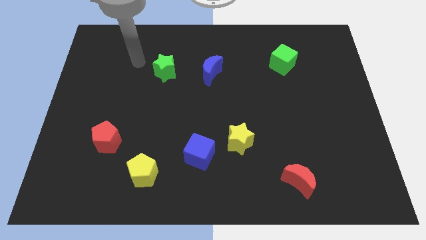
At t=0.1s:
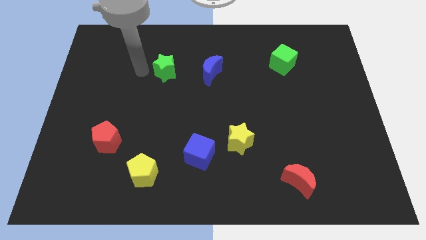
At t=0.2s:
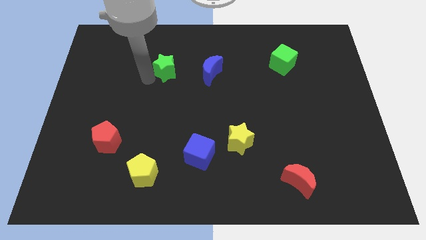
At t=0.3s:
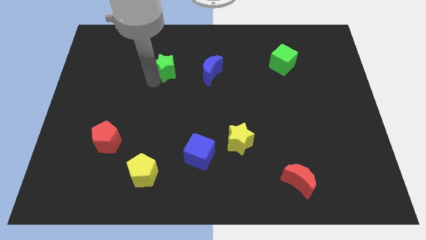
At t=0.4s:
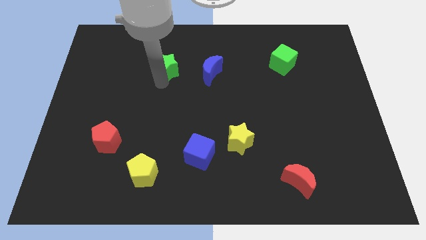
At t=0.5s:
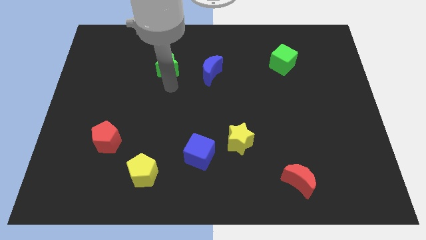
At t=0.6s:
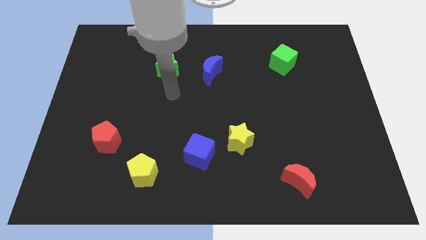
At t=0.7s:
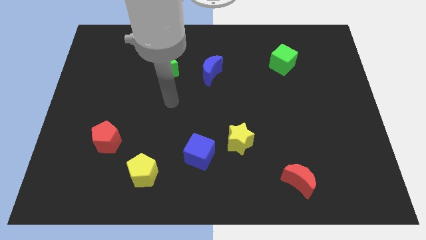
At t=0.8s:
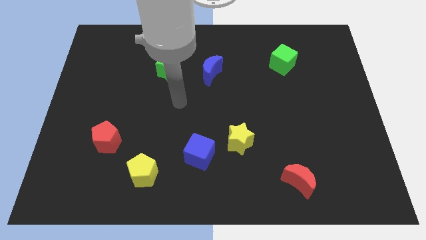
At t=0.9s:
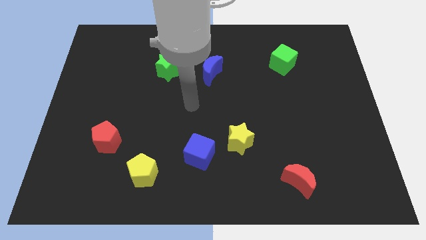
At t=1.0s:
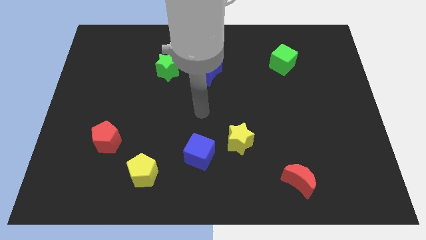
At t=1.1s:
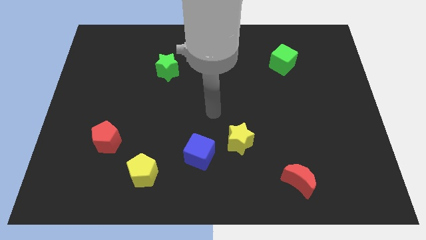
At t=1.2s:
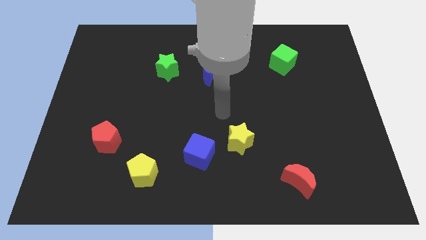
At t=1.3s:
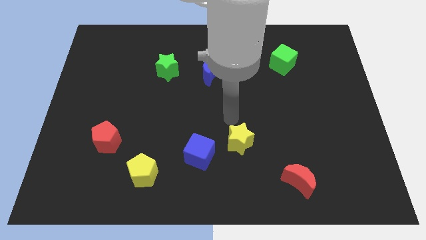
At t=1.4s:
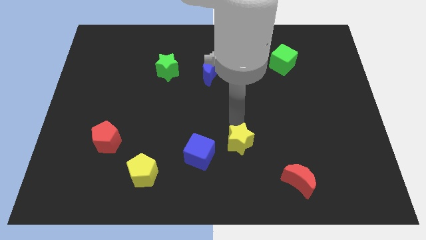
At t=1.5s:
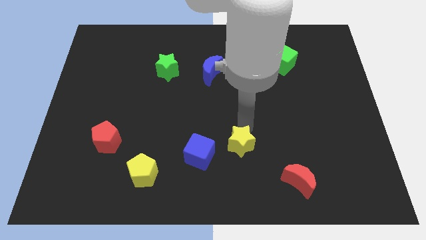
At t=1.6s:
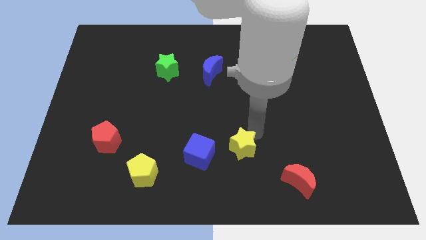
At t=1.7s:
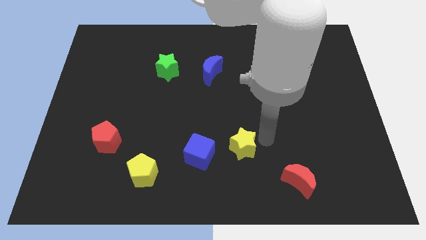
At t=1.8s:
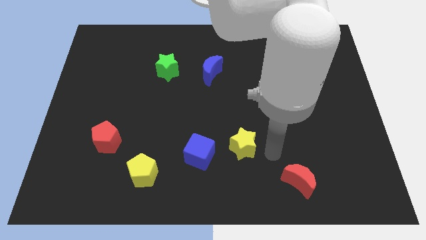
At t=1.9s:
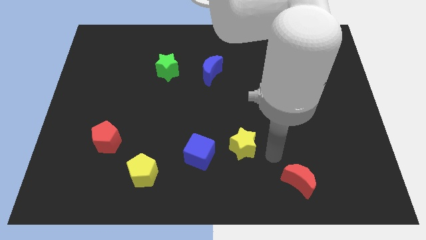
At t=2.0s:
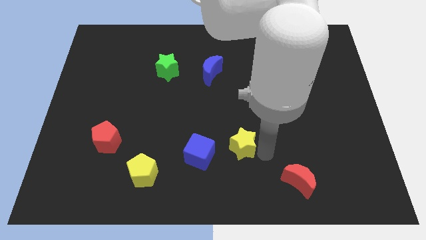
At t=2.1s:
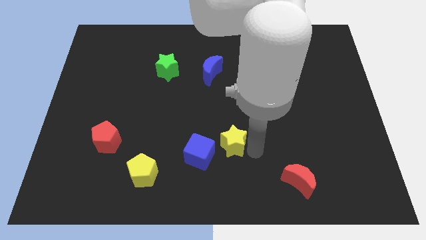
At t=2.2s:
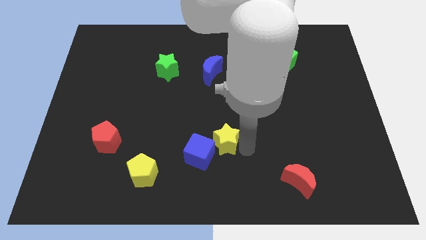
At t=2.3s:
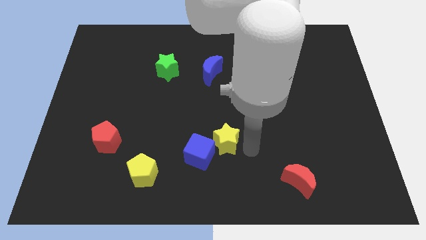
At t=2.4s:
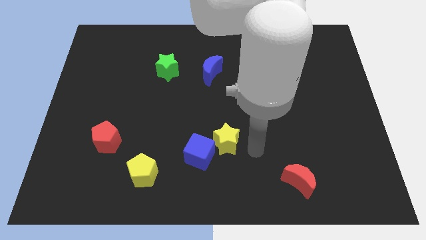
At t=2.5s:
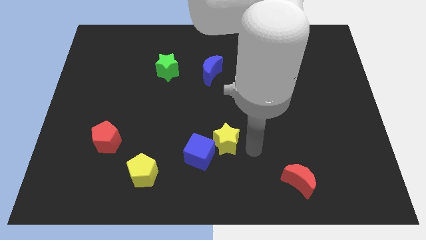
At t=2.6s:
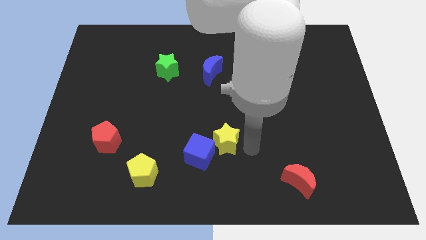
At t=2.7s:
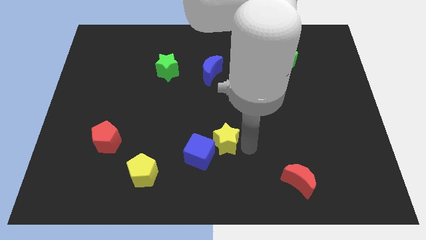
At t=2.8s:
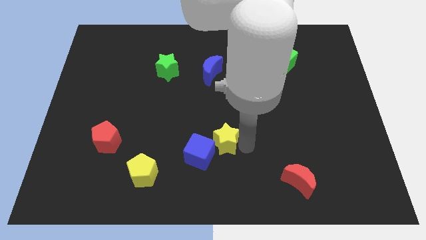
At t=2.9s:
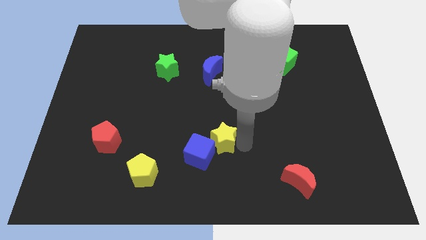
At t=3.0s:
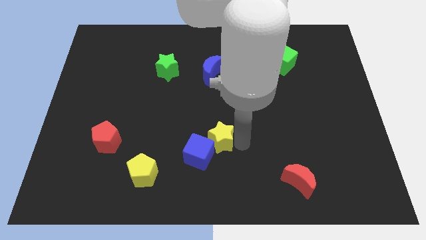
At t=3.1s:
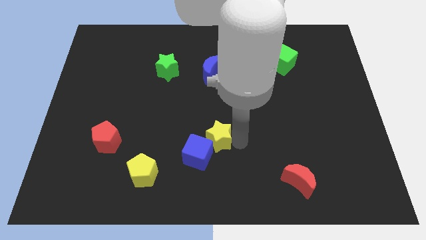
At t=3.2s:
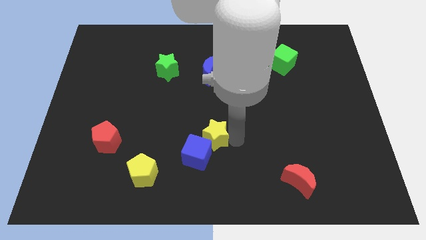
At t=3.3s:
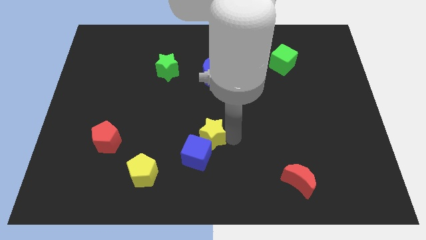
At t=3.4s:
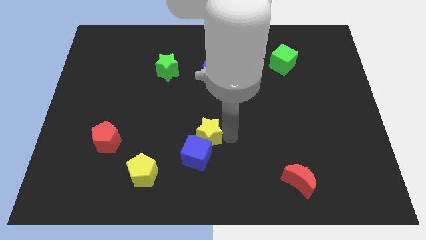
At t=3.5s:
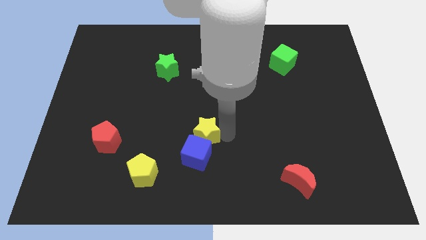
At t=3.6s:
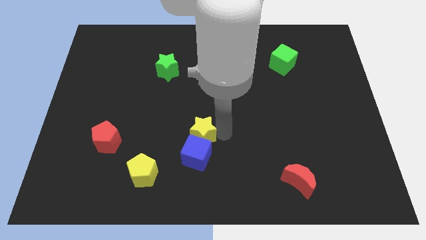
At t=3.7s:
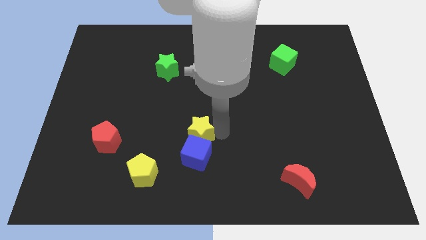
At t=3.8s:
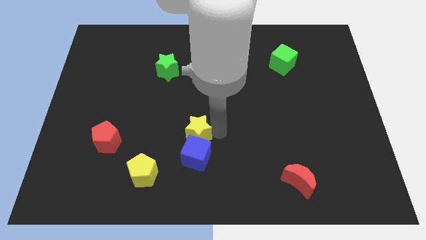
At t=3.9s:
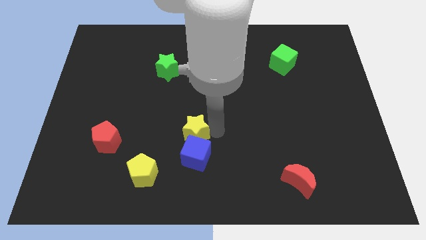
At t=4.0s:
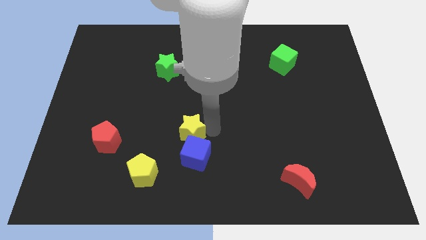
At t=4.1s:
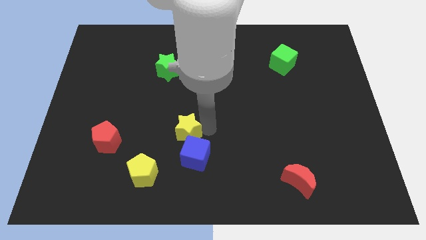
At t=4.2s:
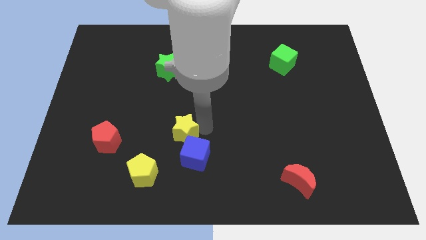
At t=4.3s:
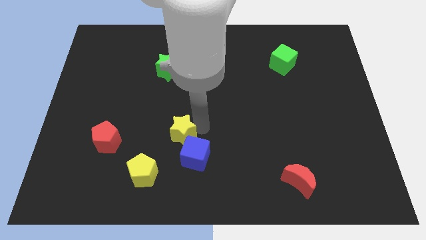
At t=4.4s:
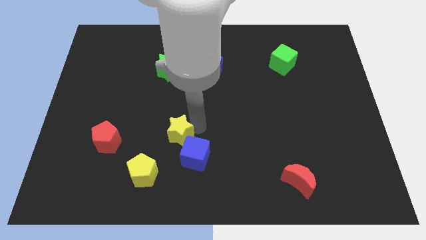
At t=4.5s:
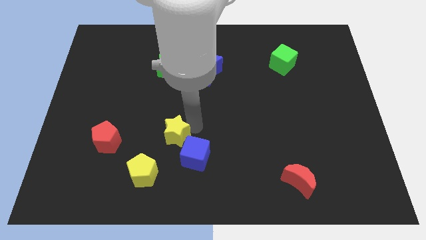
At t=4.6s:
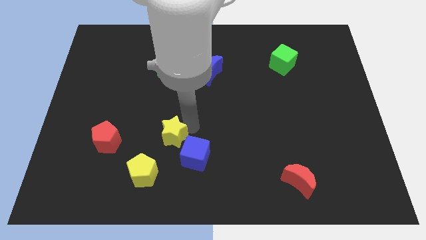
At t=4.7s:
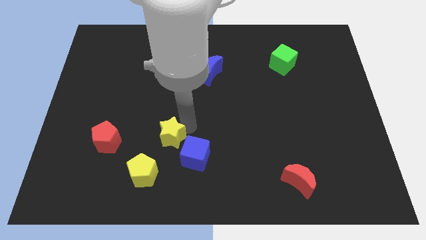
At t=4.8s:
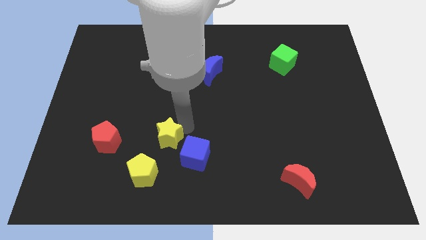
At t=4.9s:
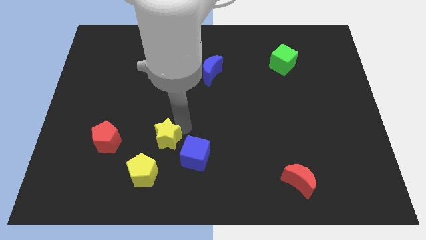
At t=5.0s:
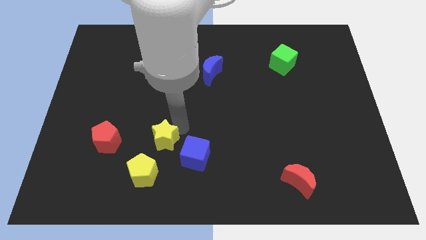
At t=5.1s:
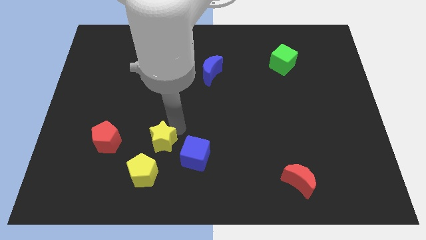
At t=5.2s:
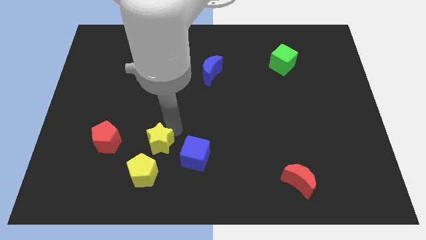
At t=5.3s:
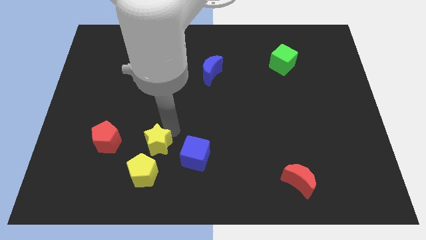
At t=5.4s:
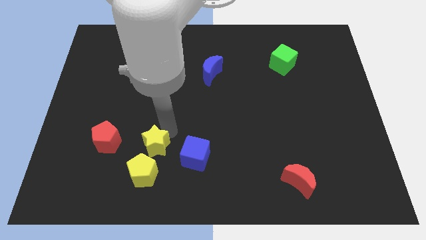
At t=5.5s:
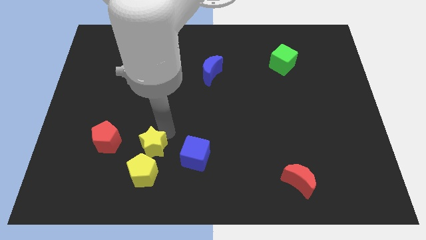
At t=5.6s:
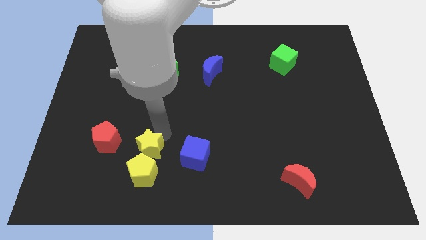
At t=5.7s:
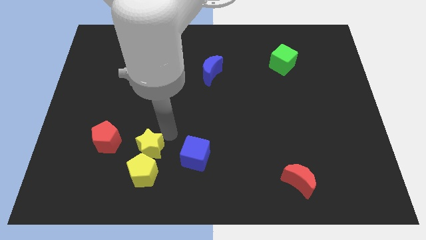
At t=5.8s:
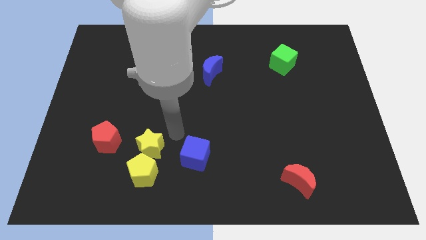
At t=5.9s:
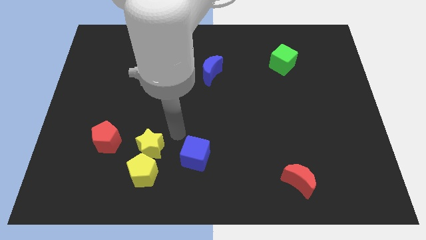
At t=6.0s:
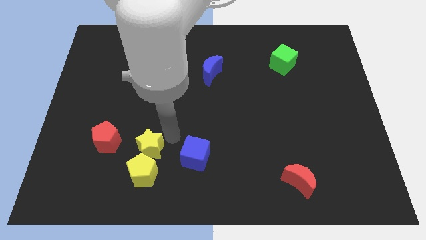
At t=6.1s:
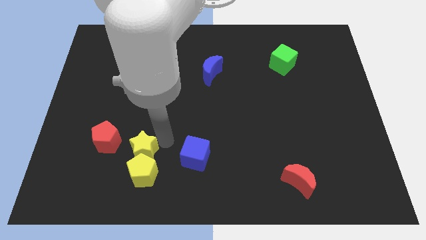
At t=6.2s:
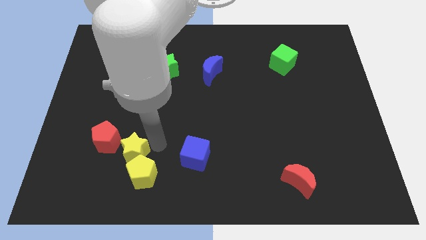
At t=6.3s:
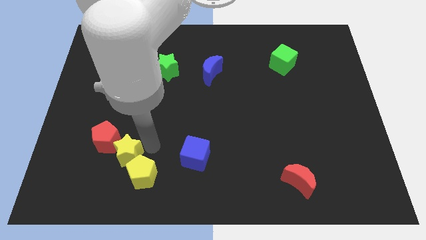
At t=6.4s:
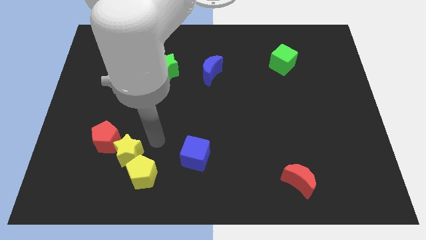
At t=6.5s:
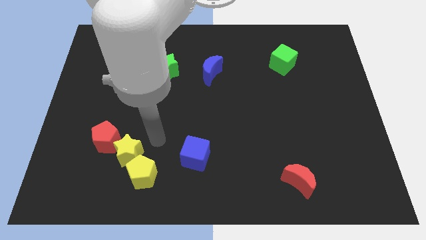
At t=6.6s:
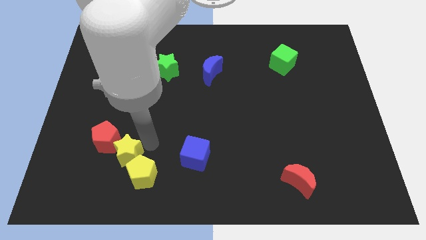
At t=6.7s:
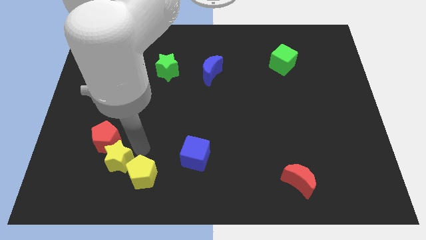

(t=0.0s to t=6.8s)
put the yellow star just left of the yellow pentagon

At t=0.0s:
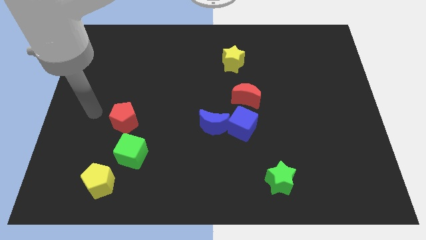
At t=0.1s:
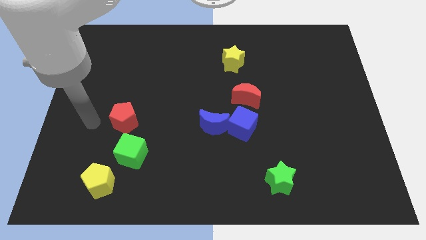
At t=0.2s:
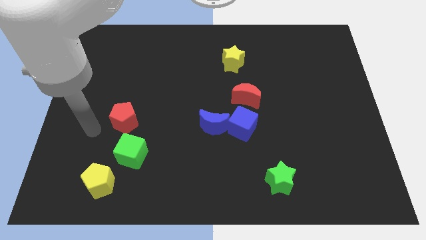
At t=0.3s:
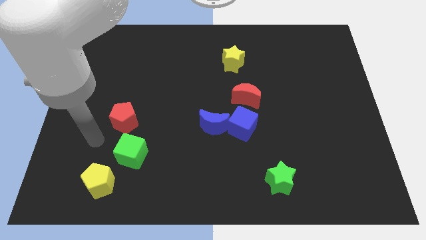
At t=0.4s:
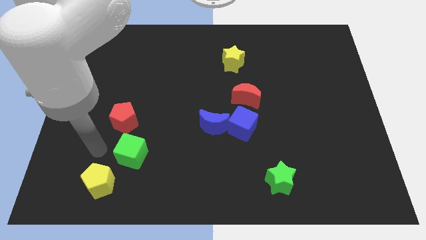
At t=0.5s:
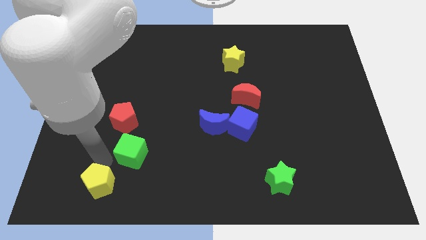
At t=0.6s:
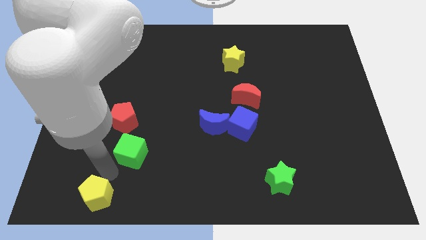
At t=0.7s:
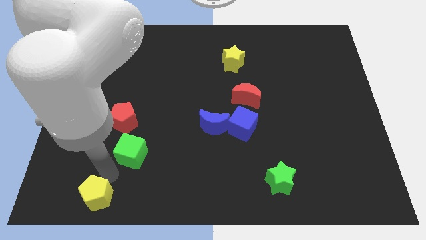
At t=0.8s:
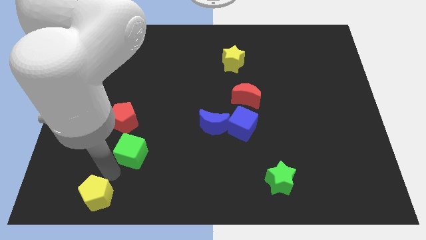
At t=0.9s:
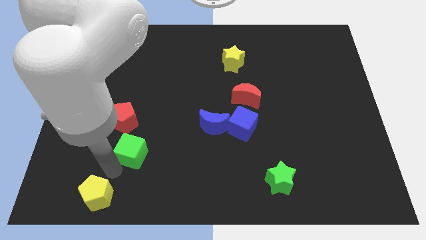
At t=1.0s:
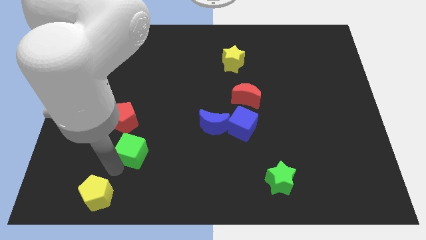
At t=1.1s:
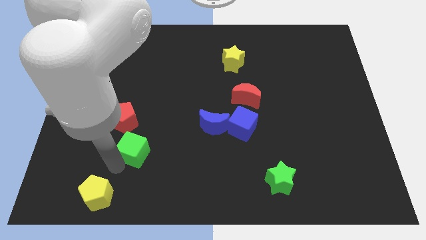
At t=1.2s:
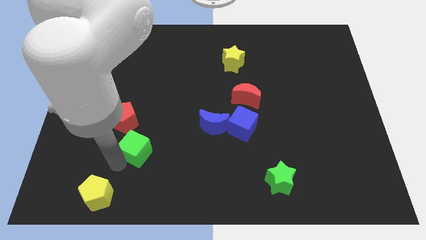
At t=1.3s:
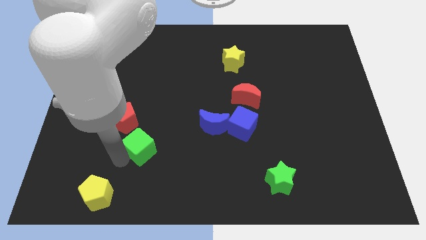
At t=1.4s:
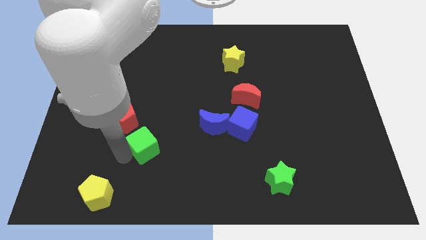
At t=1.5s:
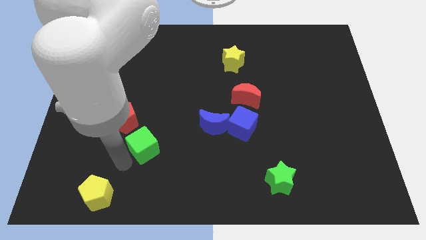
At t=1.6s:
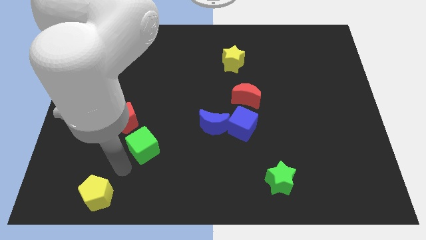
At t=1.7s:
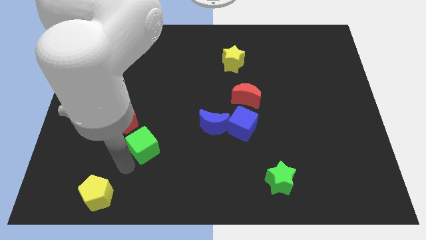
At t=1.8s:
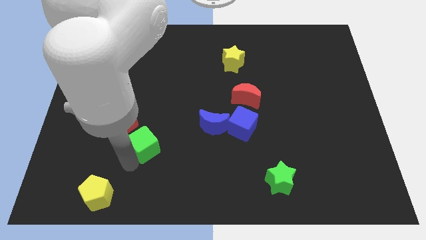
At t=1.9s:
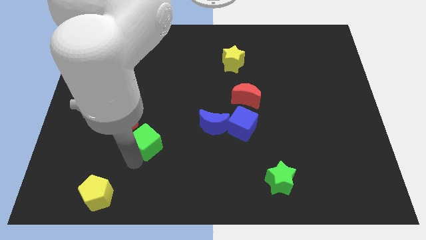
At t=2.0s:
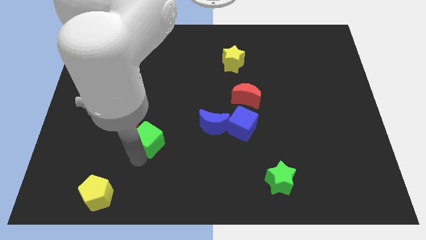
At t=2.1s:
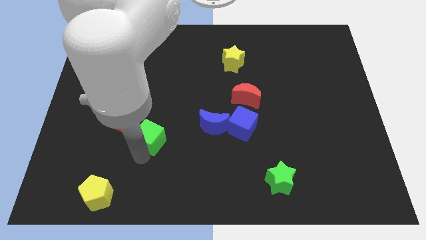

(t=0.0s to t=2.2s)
put the green cube just right of the red pentagon
